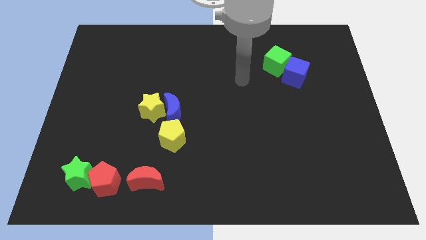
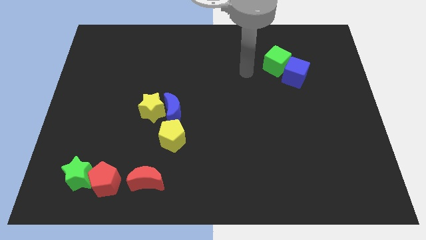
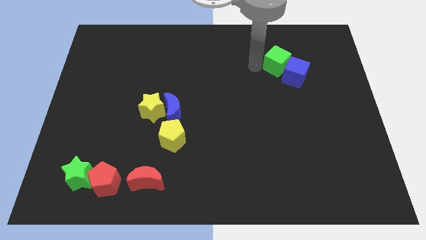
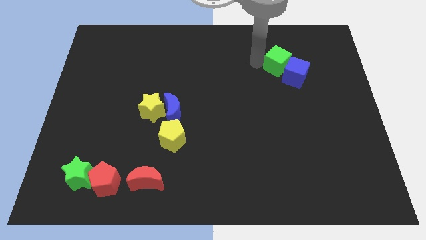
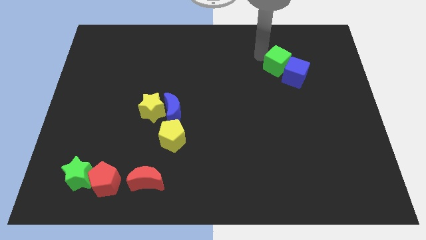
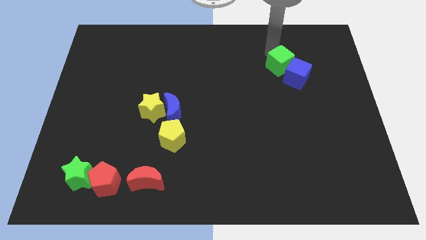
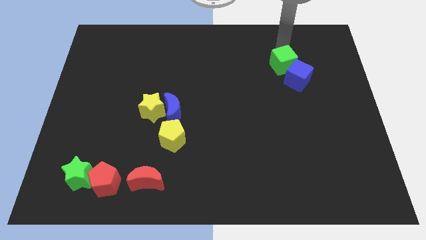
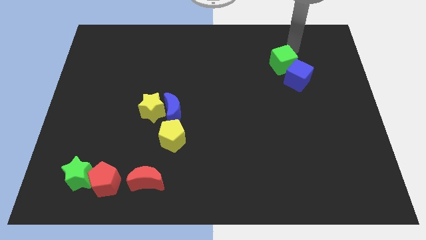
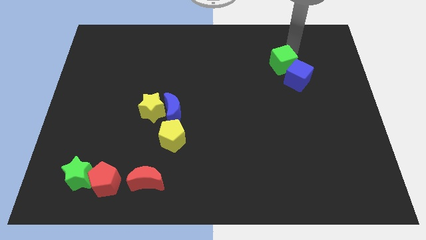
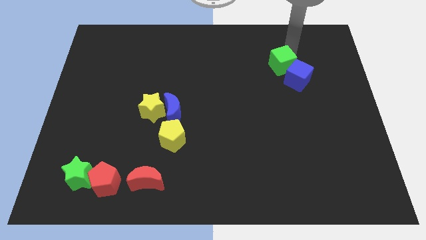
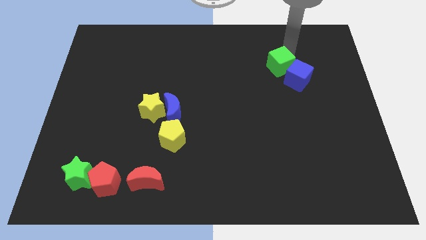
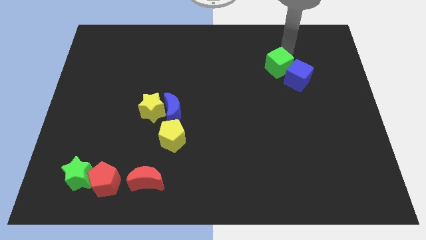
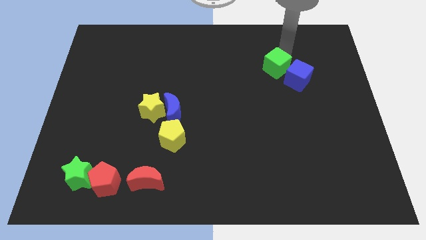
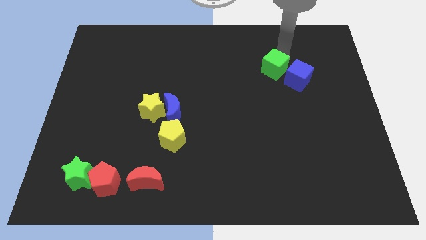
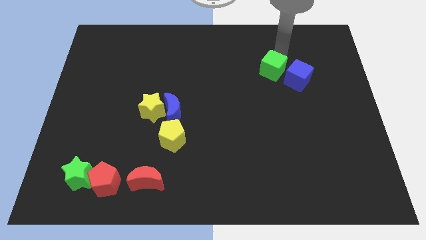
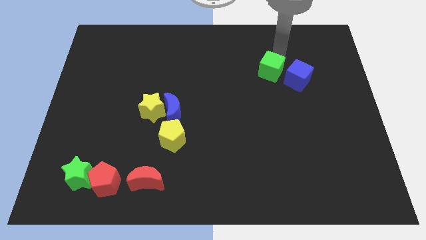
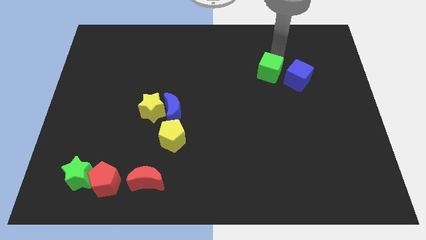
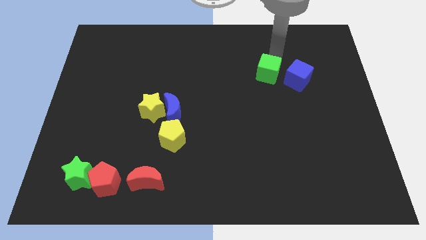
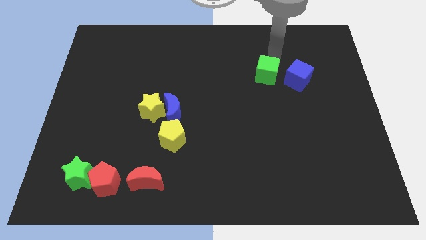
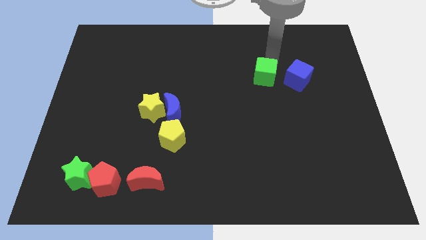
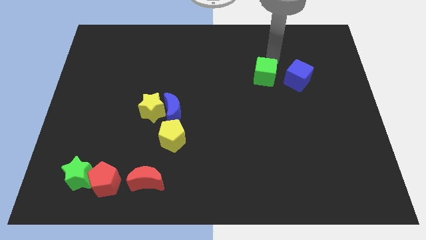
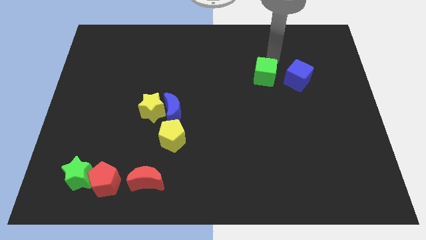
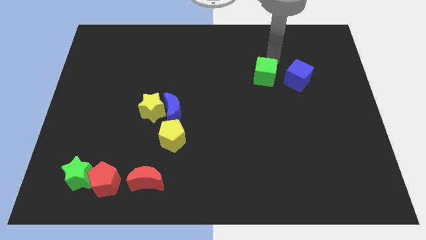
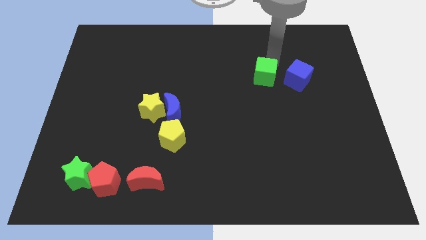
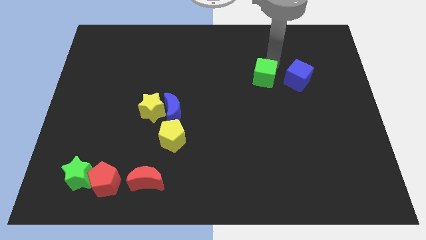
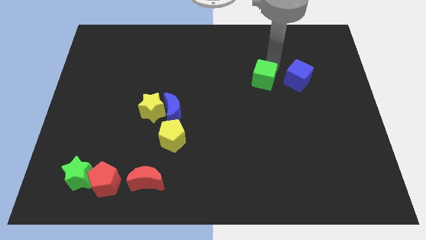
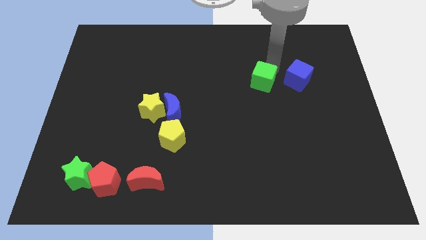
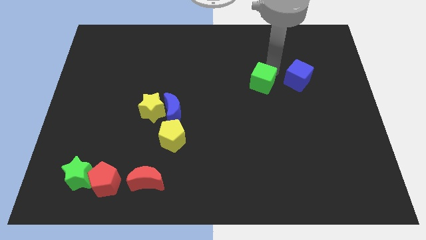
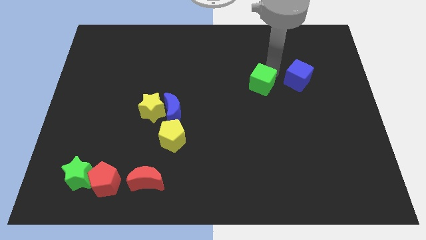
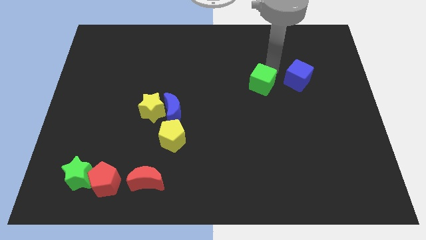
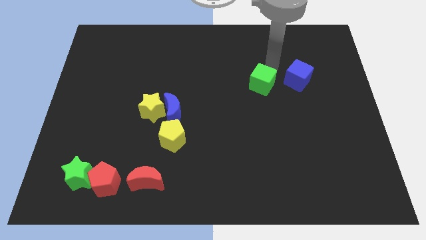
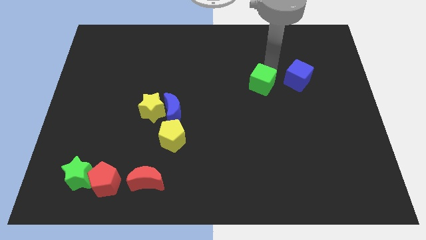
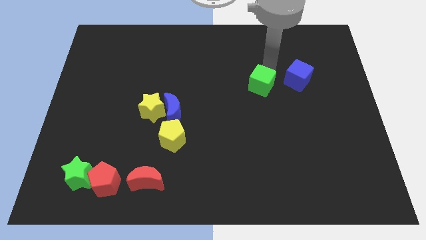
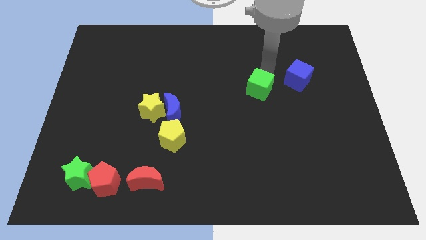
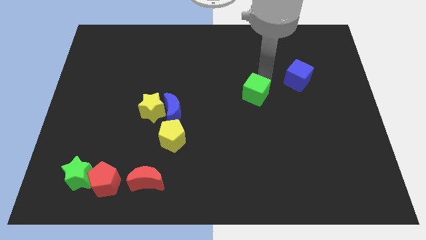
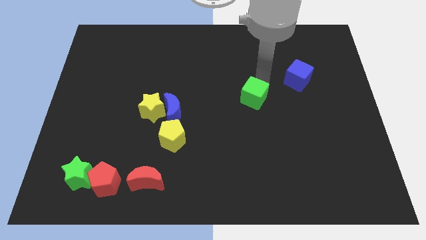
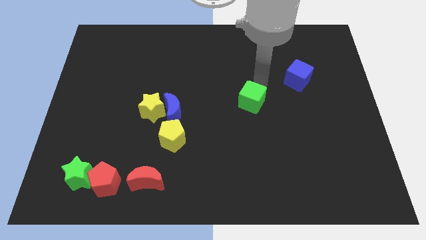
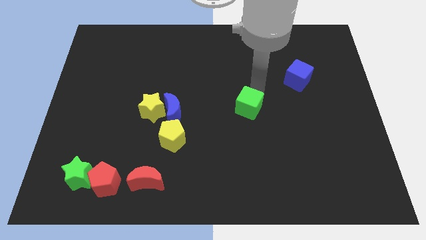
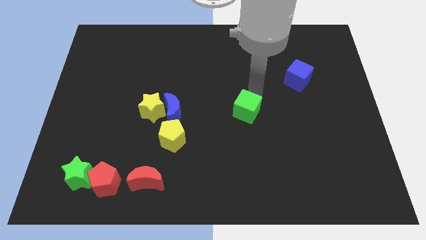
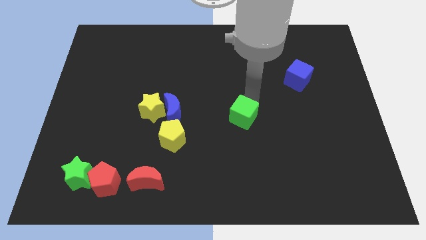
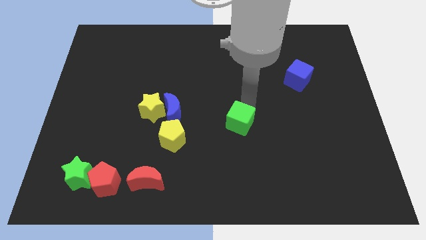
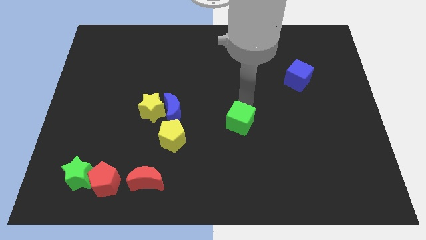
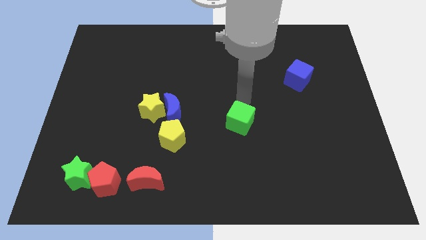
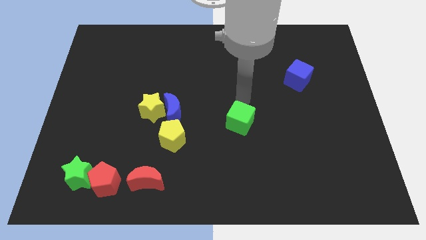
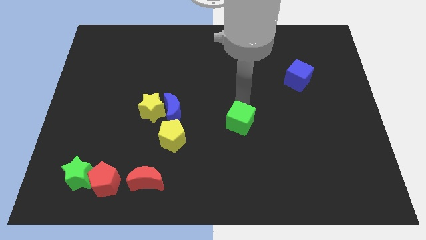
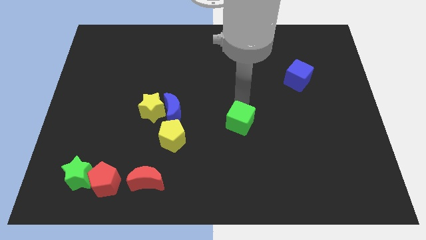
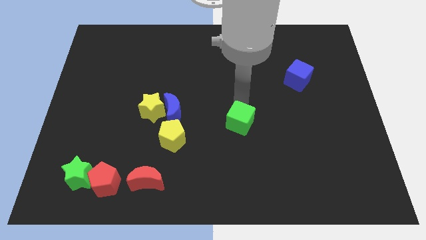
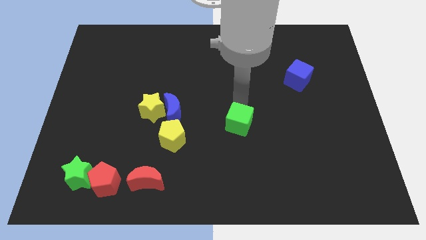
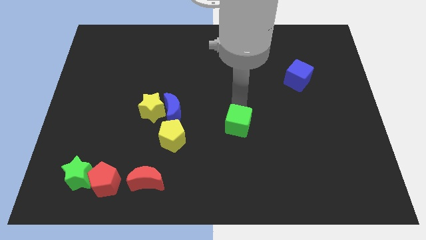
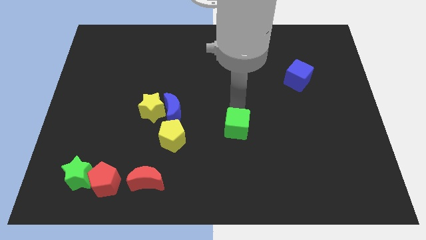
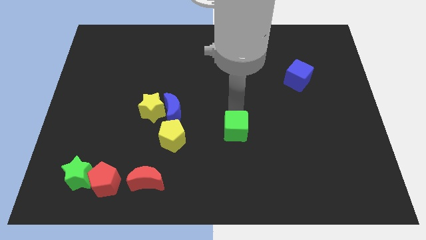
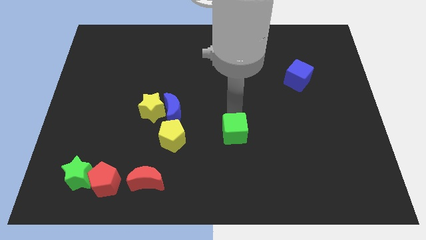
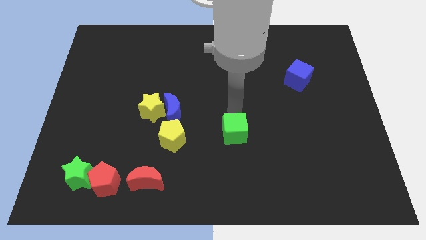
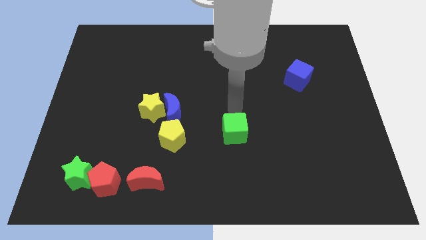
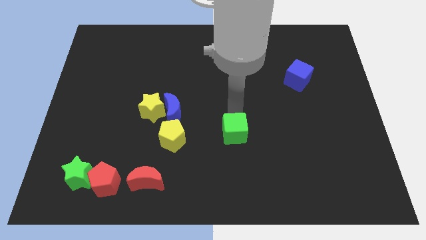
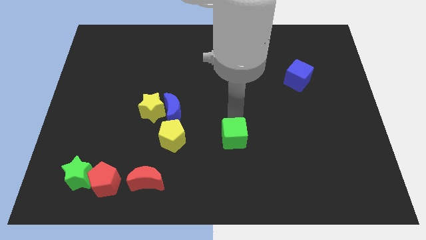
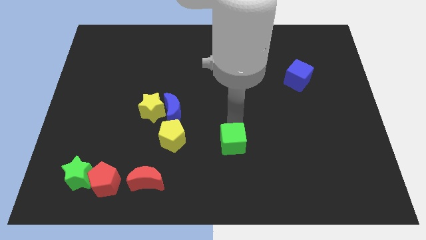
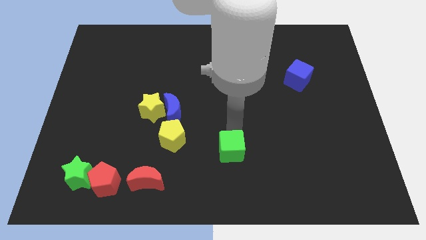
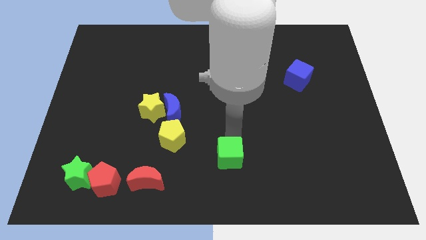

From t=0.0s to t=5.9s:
move the green cube to the bottom side

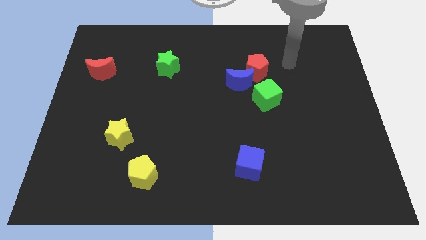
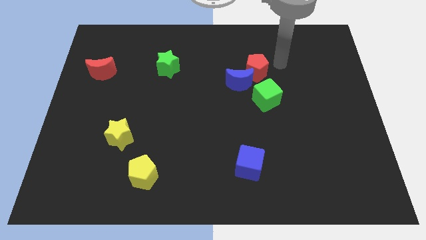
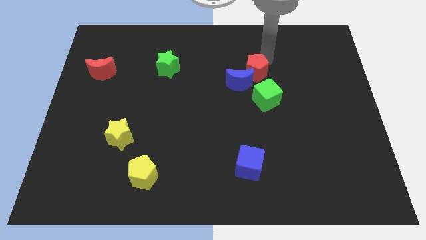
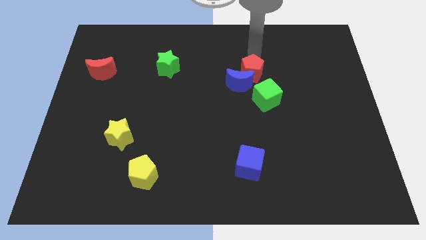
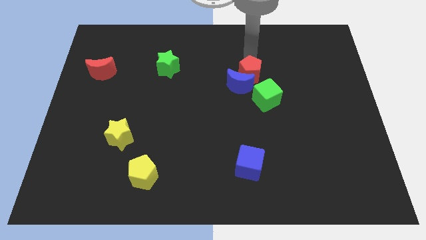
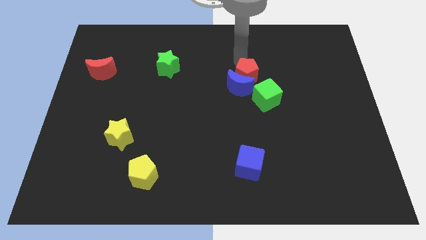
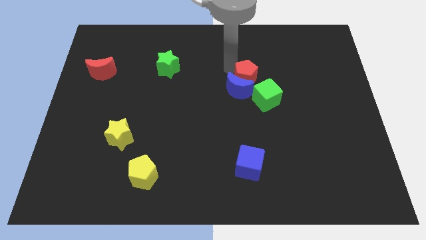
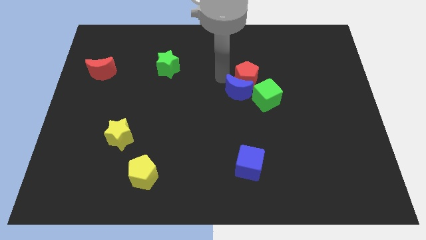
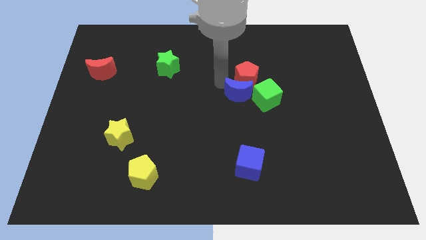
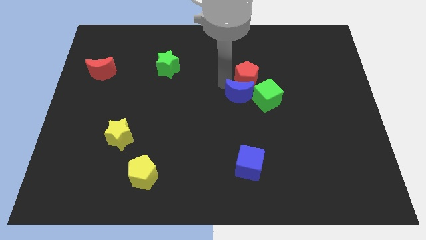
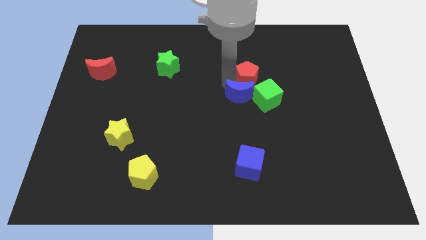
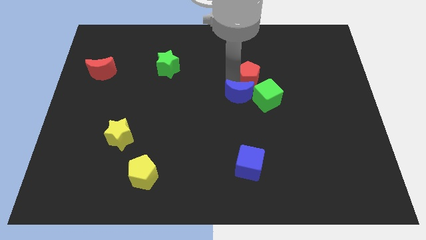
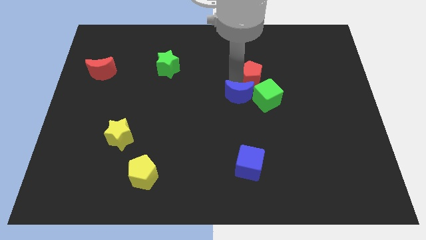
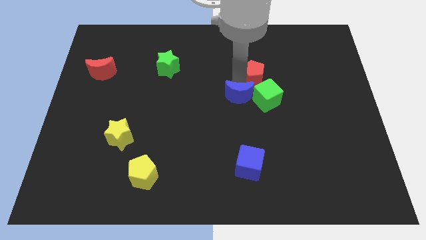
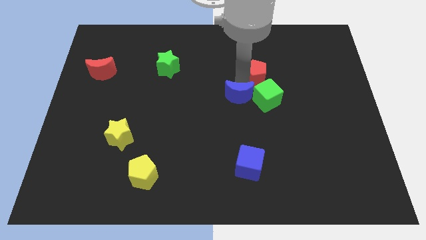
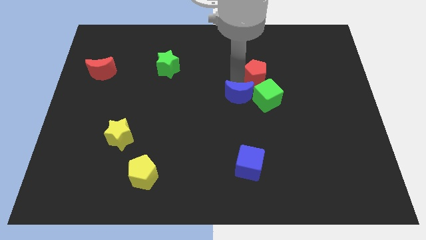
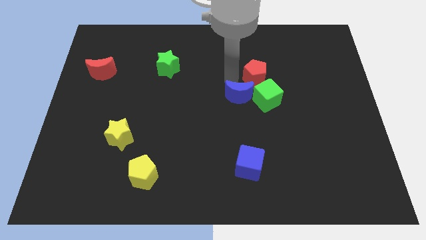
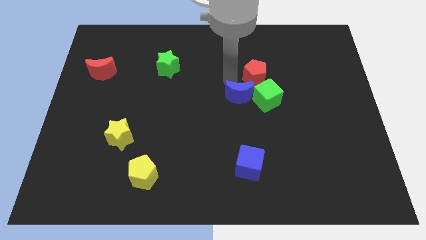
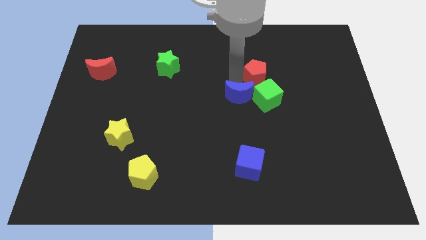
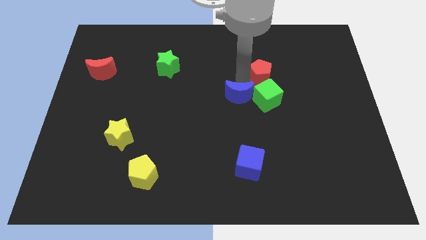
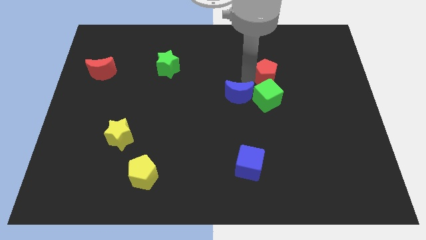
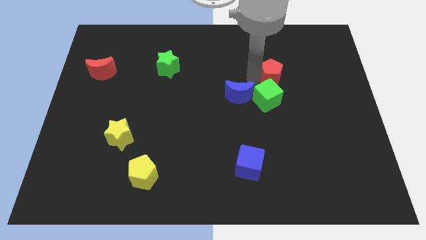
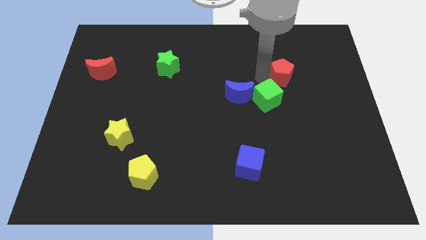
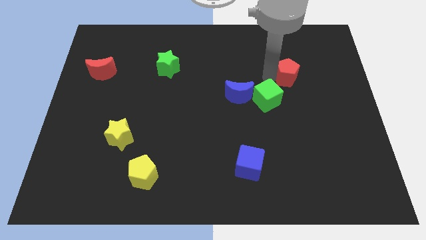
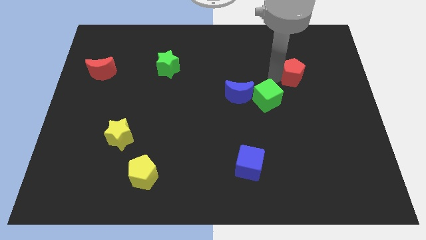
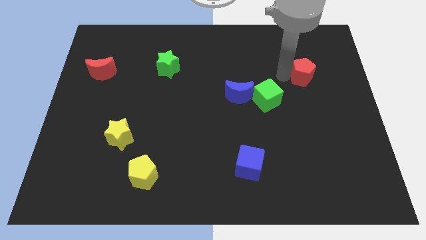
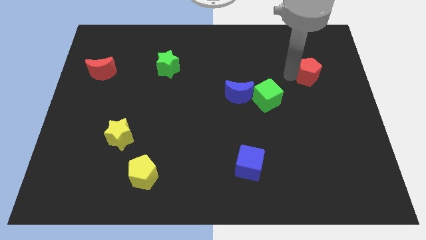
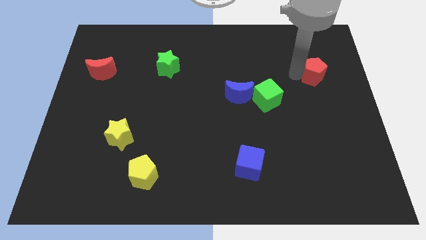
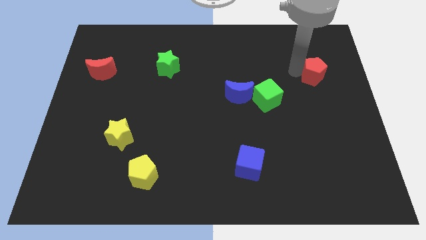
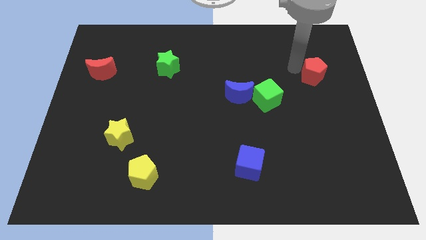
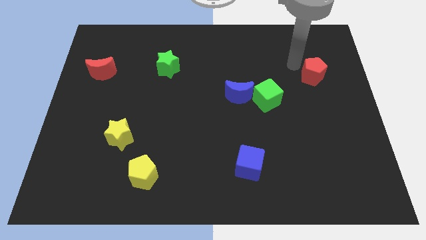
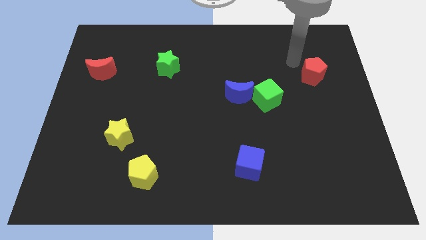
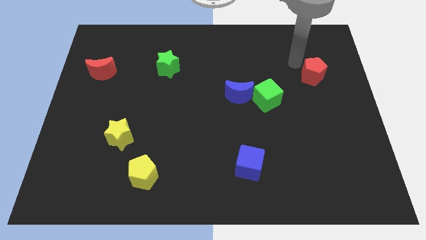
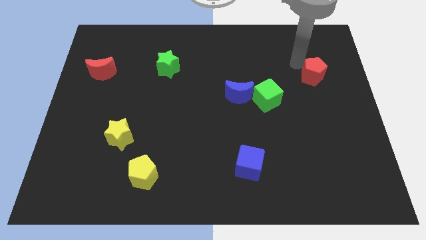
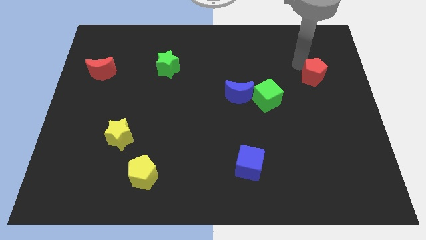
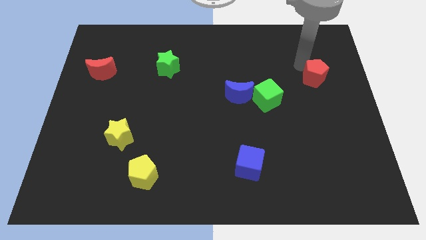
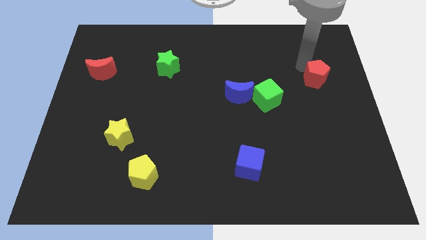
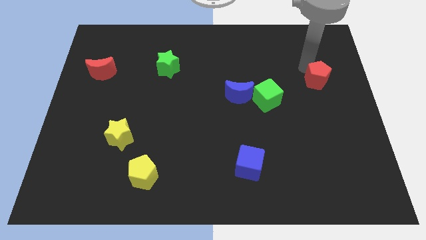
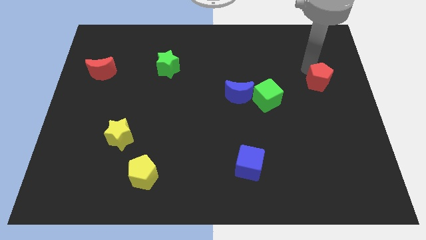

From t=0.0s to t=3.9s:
slide the red pentagon to the center right
